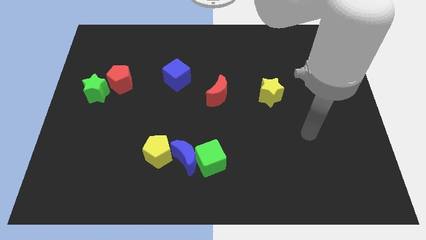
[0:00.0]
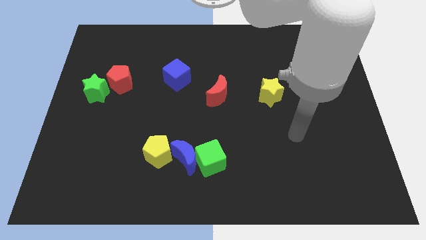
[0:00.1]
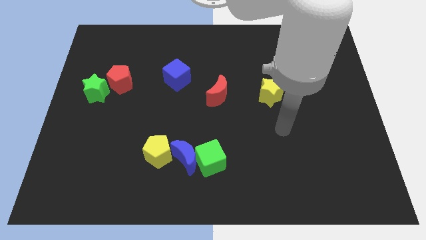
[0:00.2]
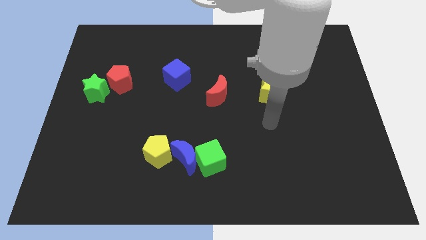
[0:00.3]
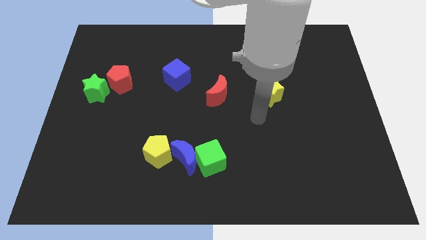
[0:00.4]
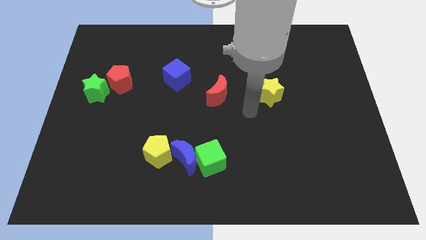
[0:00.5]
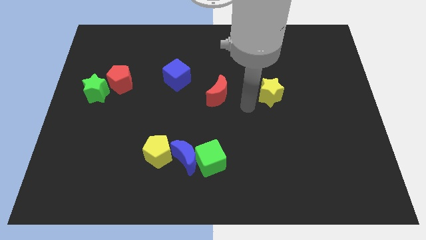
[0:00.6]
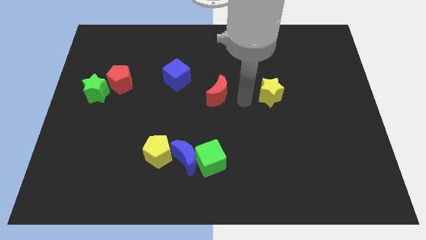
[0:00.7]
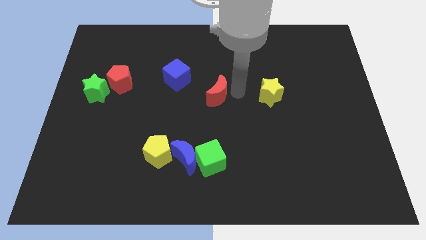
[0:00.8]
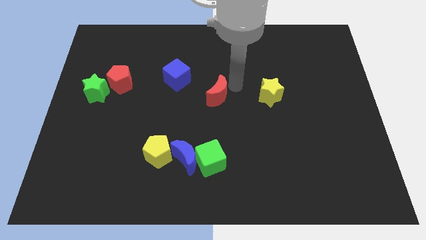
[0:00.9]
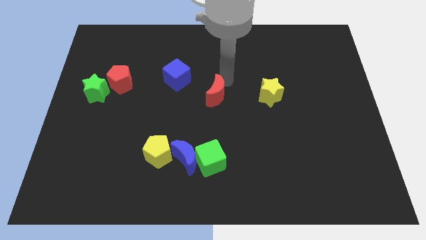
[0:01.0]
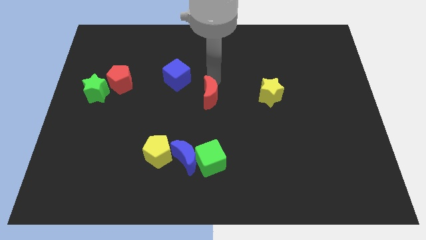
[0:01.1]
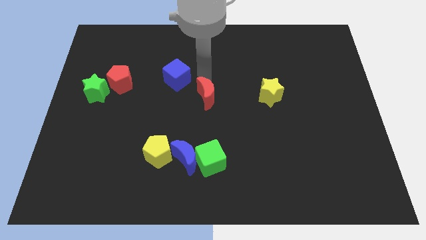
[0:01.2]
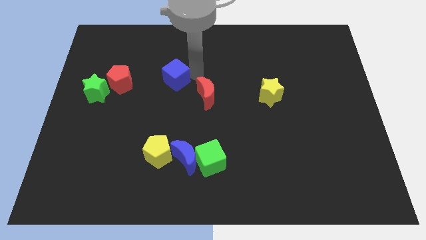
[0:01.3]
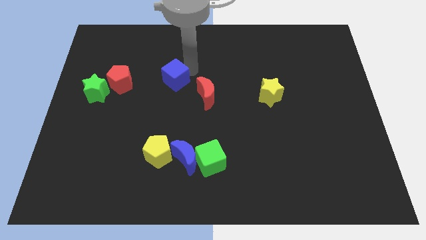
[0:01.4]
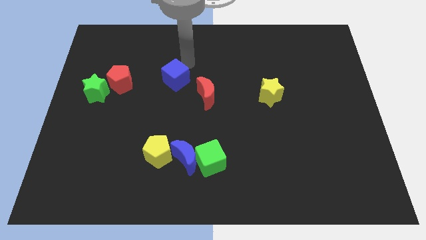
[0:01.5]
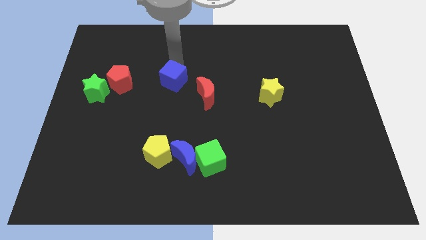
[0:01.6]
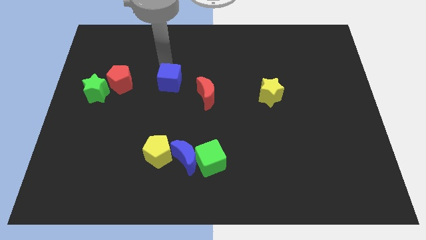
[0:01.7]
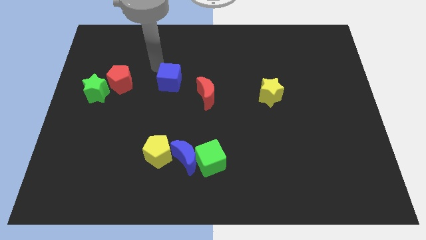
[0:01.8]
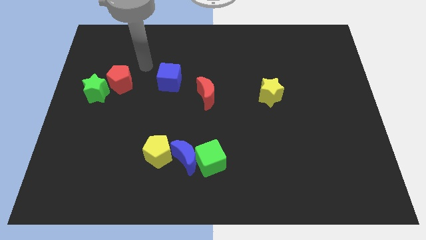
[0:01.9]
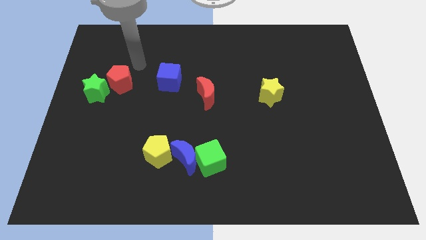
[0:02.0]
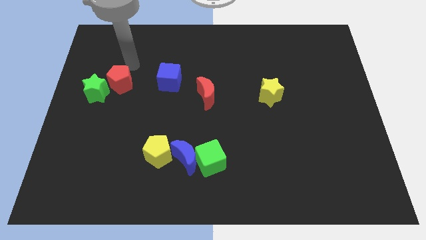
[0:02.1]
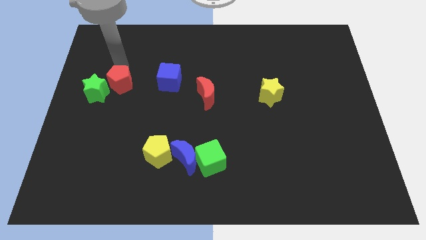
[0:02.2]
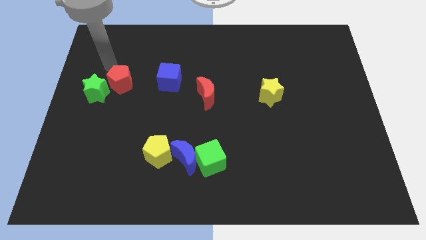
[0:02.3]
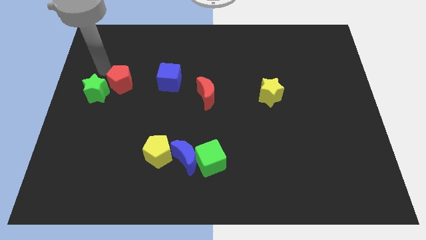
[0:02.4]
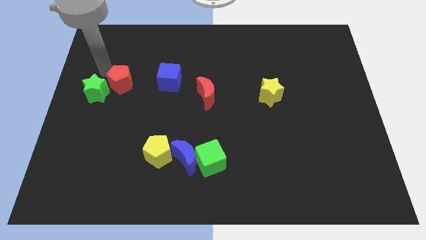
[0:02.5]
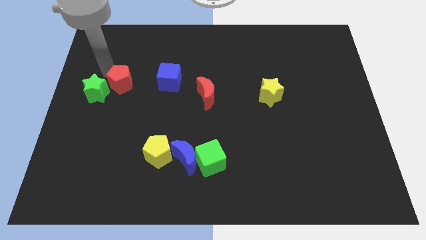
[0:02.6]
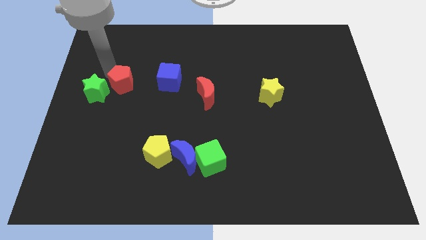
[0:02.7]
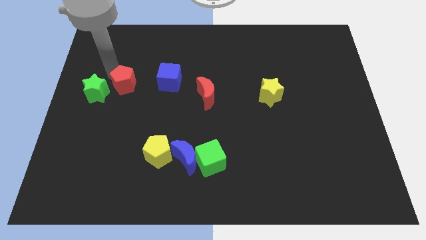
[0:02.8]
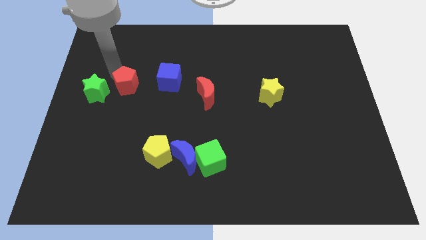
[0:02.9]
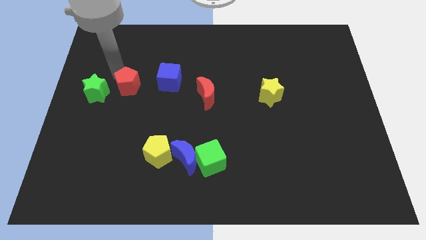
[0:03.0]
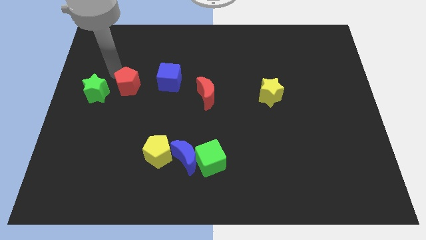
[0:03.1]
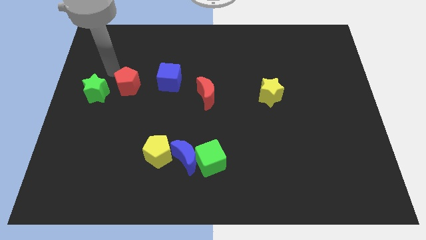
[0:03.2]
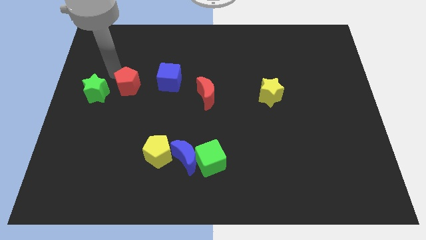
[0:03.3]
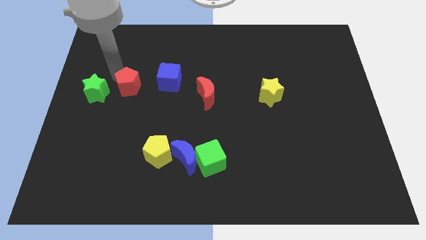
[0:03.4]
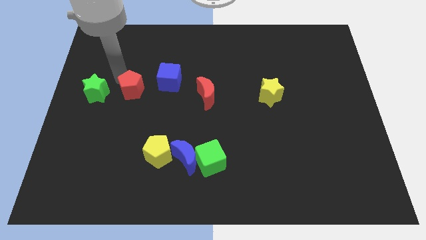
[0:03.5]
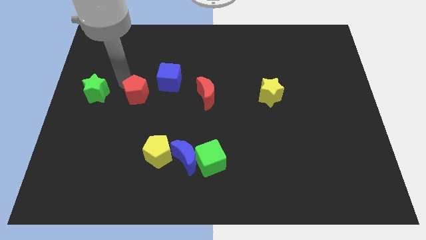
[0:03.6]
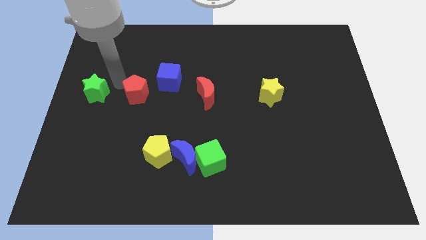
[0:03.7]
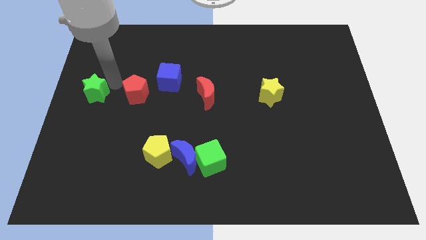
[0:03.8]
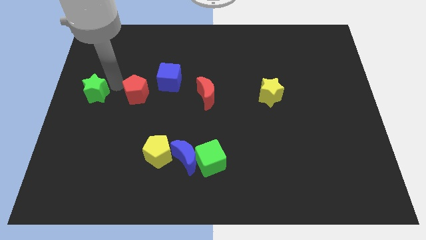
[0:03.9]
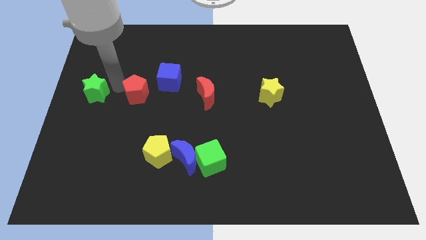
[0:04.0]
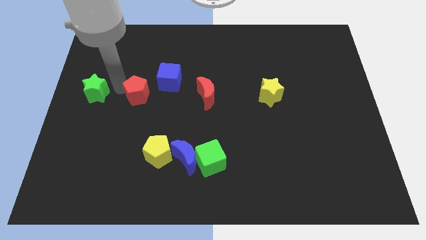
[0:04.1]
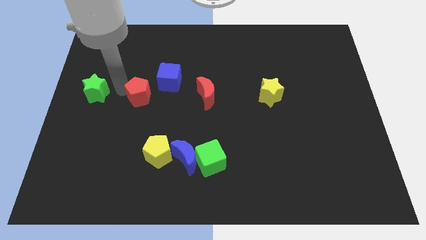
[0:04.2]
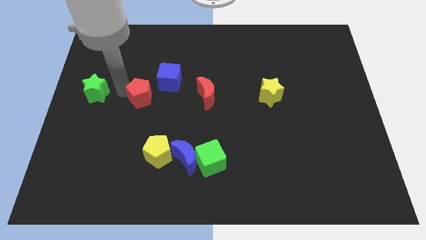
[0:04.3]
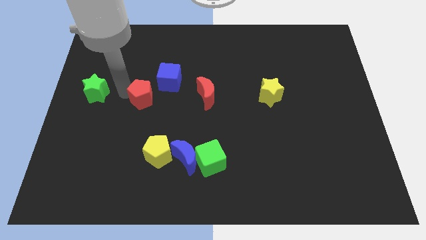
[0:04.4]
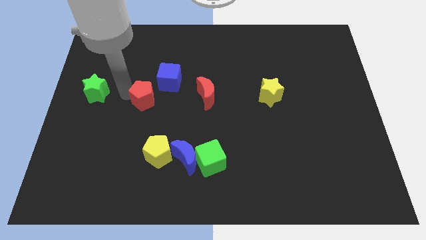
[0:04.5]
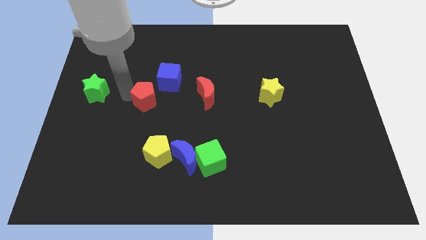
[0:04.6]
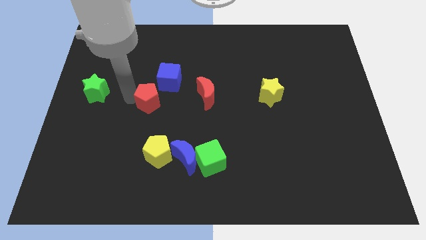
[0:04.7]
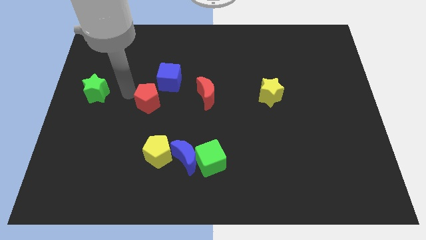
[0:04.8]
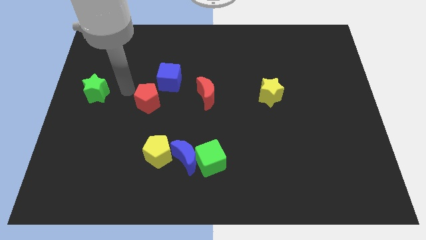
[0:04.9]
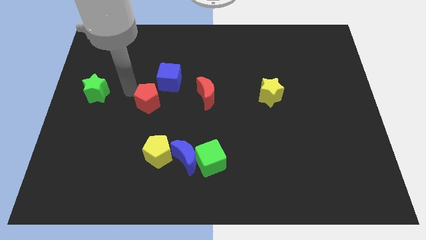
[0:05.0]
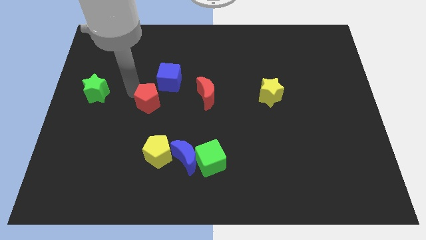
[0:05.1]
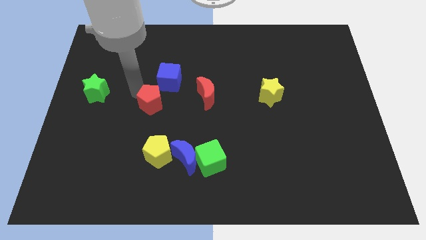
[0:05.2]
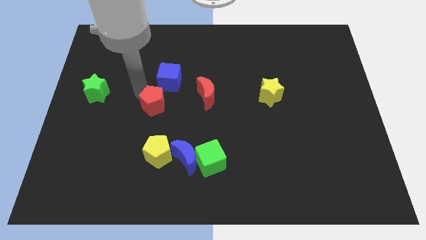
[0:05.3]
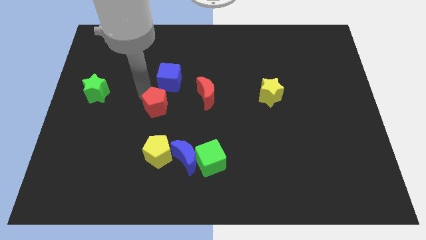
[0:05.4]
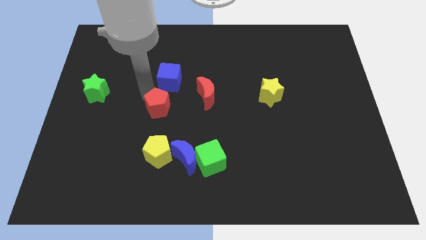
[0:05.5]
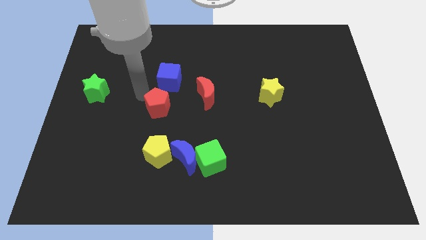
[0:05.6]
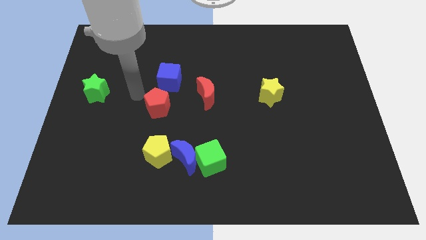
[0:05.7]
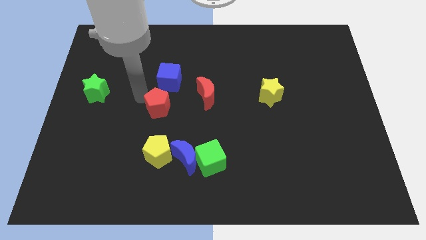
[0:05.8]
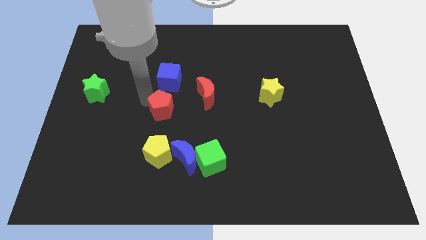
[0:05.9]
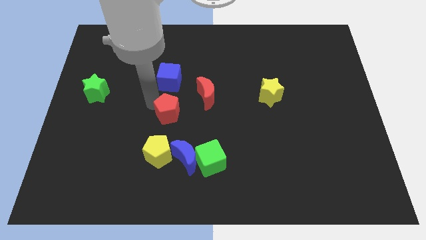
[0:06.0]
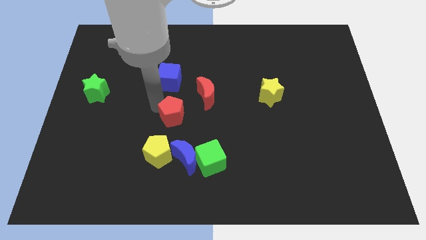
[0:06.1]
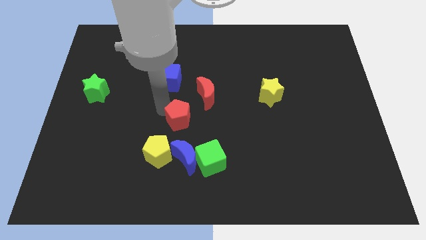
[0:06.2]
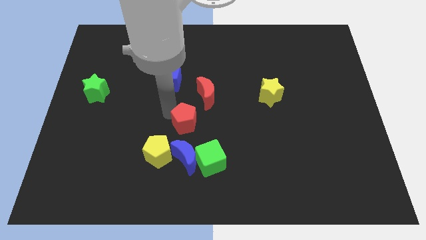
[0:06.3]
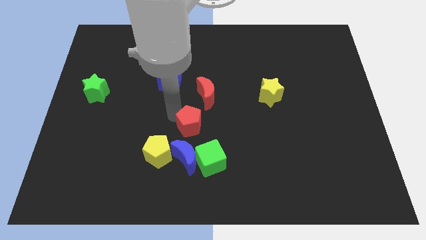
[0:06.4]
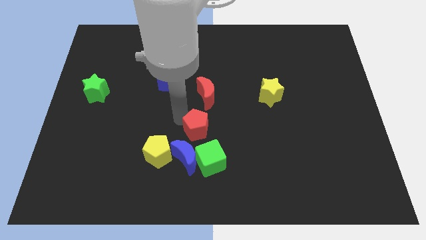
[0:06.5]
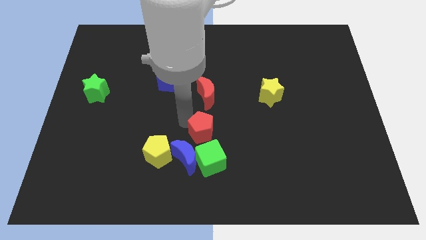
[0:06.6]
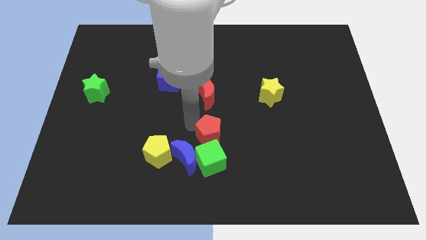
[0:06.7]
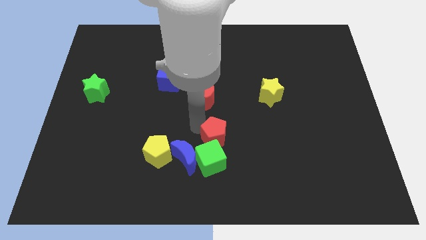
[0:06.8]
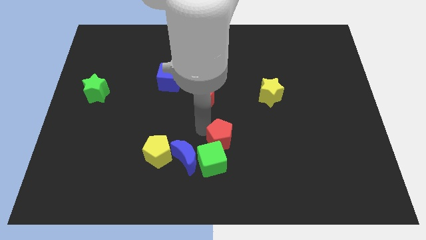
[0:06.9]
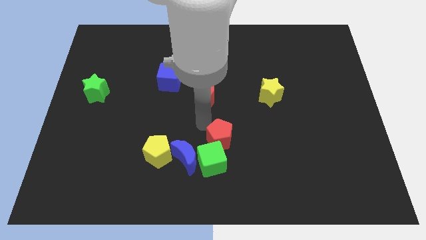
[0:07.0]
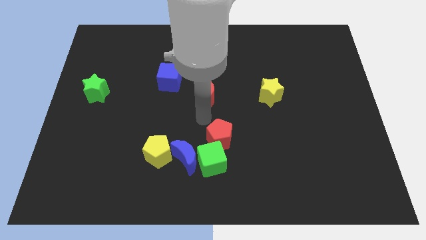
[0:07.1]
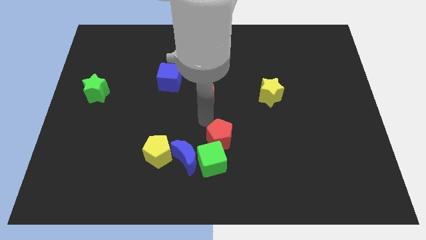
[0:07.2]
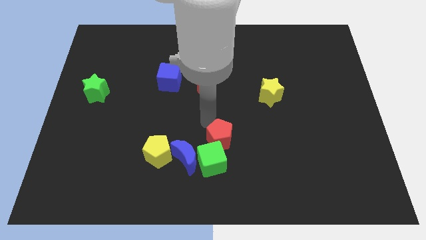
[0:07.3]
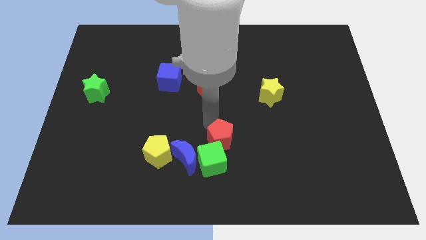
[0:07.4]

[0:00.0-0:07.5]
slide the red pentagon right of the blue moon
